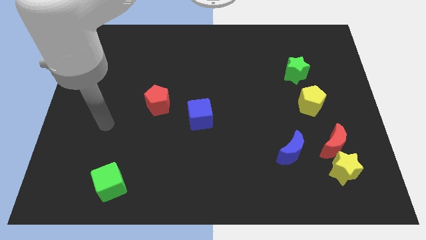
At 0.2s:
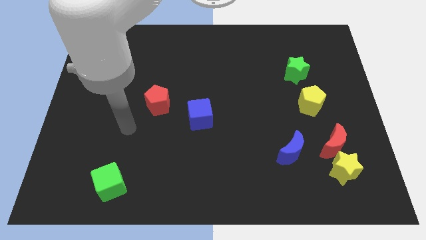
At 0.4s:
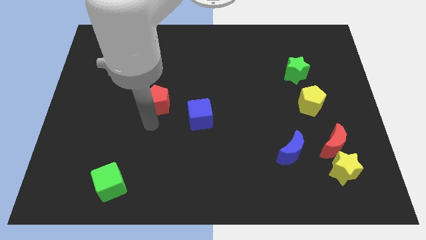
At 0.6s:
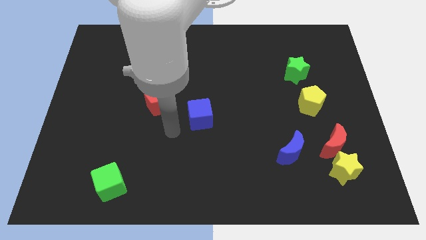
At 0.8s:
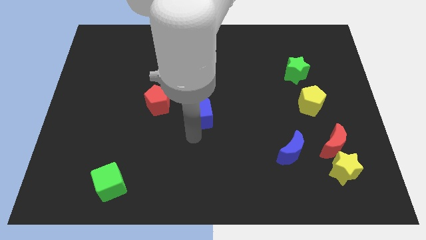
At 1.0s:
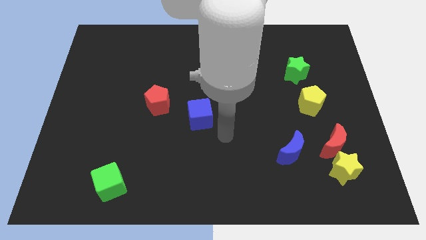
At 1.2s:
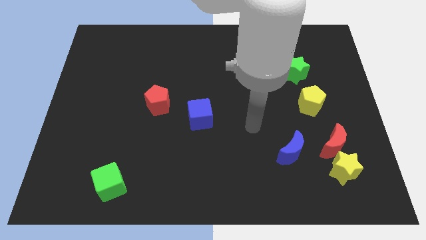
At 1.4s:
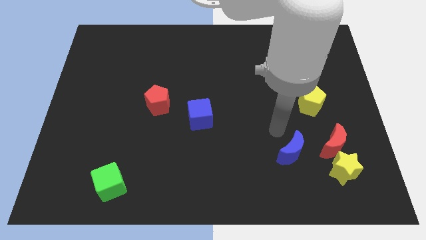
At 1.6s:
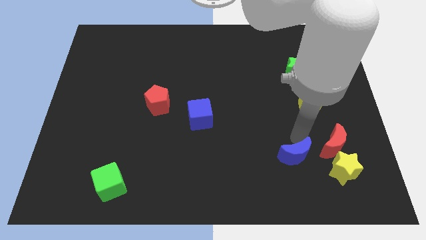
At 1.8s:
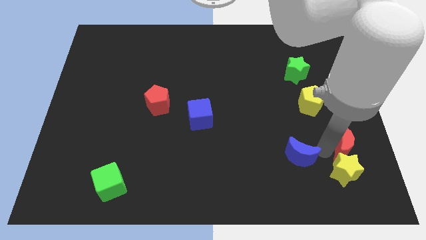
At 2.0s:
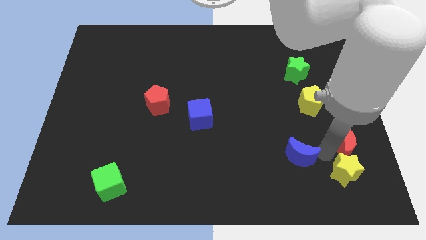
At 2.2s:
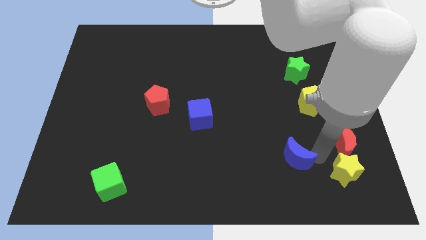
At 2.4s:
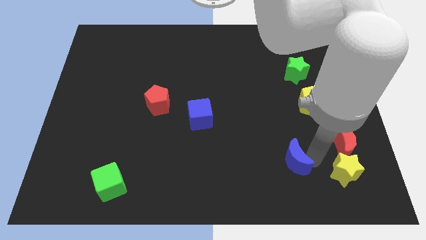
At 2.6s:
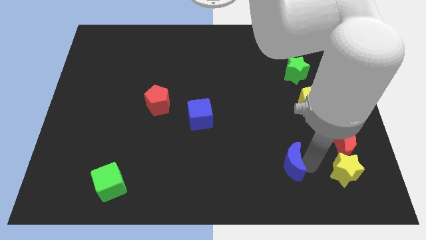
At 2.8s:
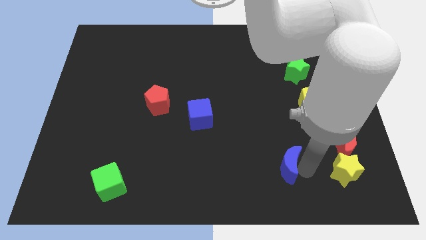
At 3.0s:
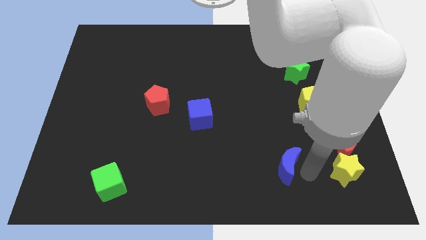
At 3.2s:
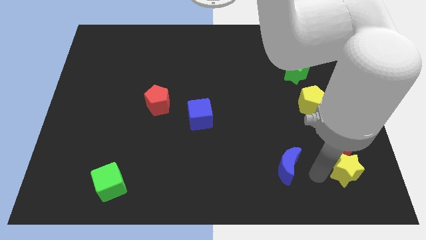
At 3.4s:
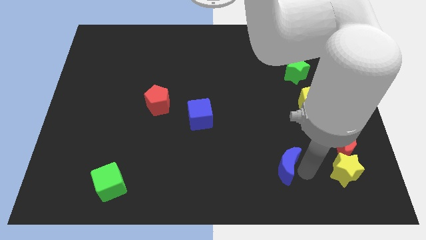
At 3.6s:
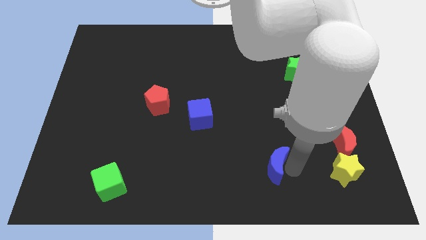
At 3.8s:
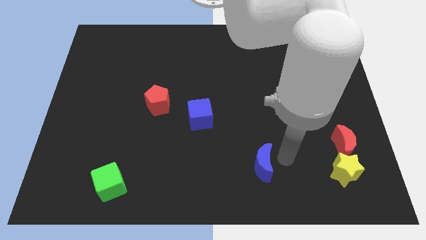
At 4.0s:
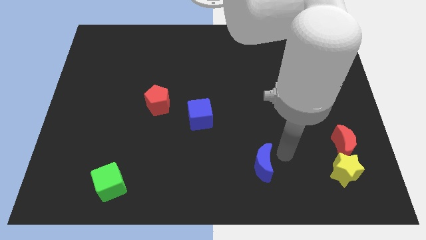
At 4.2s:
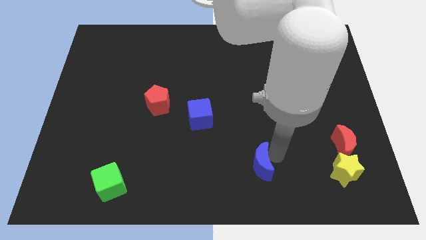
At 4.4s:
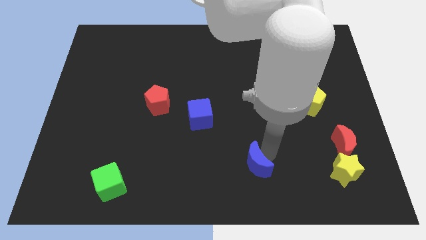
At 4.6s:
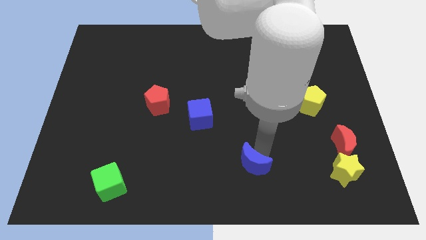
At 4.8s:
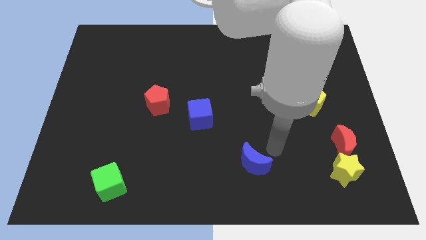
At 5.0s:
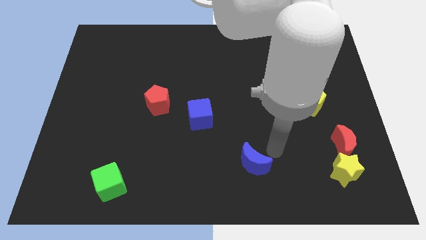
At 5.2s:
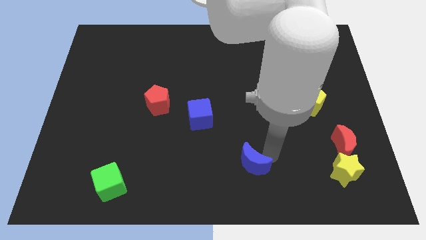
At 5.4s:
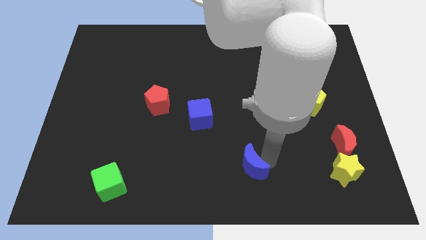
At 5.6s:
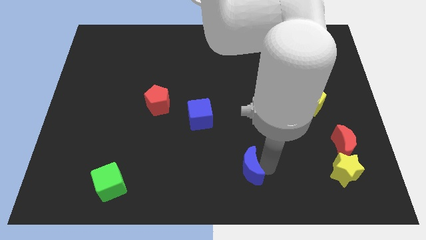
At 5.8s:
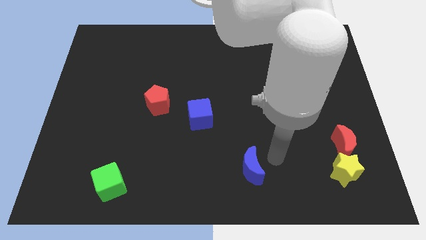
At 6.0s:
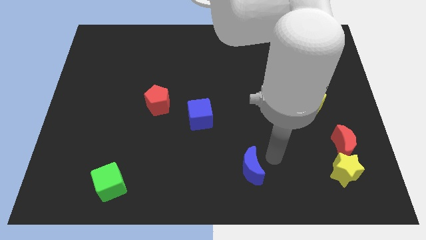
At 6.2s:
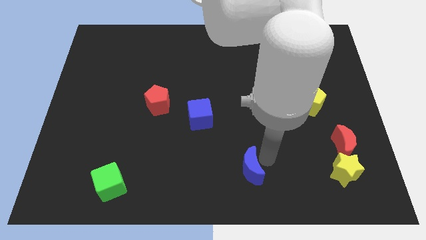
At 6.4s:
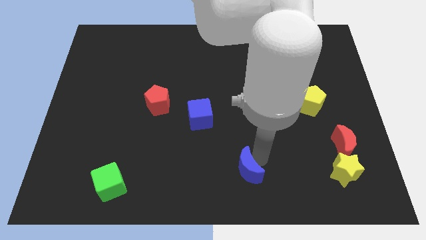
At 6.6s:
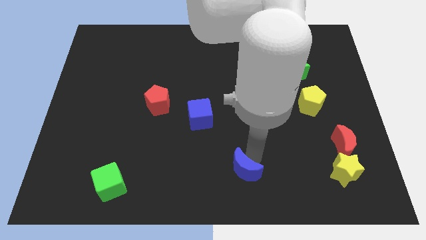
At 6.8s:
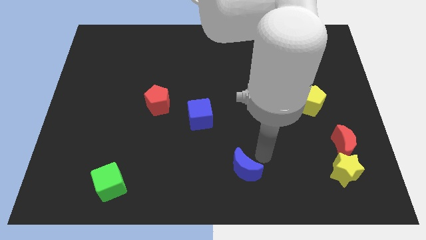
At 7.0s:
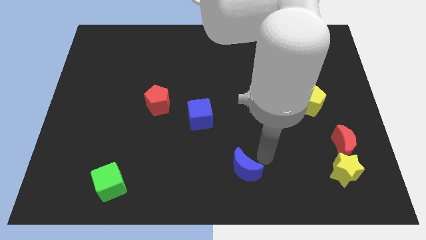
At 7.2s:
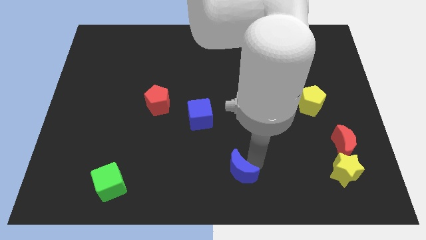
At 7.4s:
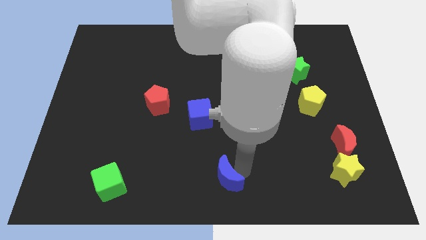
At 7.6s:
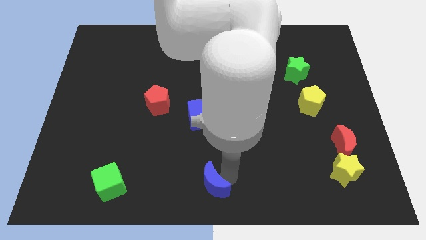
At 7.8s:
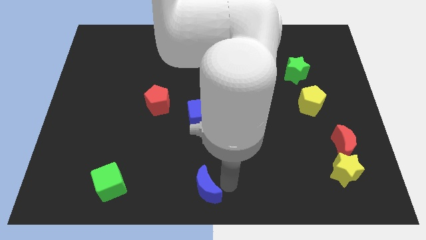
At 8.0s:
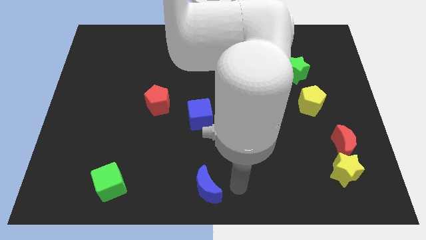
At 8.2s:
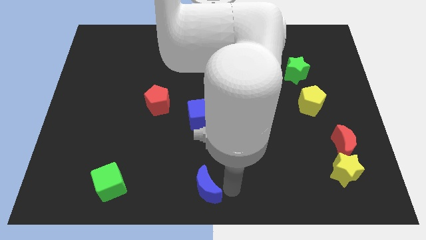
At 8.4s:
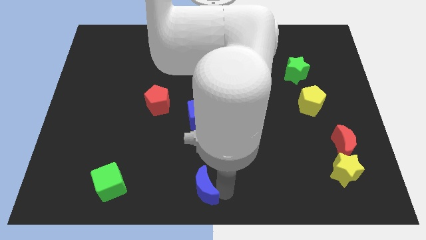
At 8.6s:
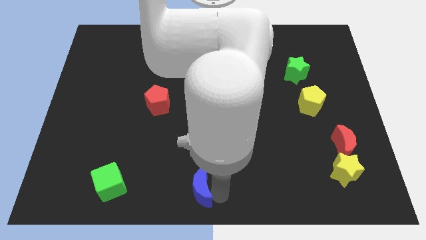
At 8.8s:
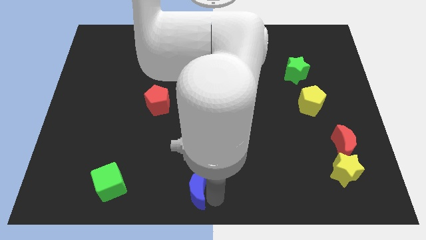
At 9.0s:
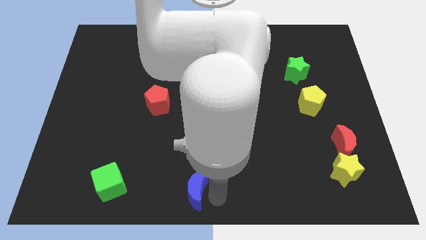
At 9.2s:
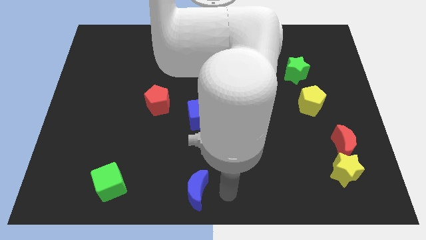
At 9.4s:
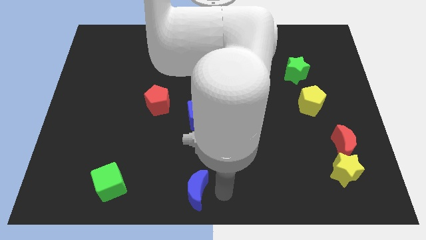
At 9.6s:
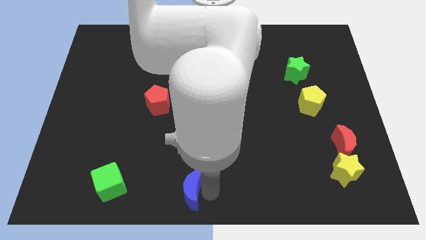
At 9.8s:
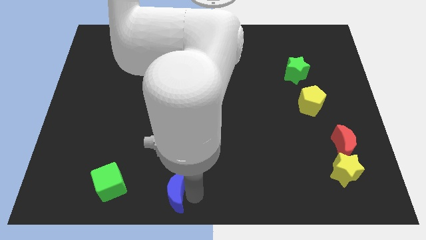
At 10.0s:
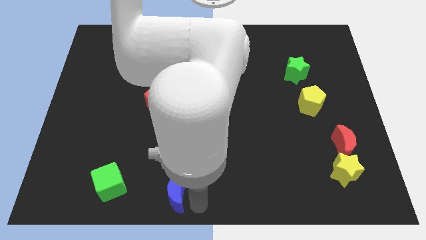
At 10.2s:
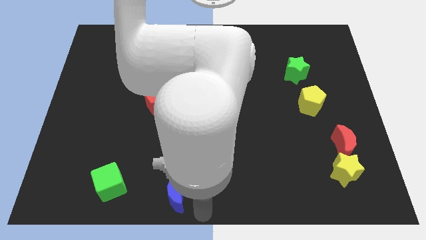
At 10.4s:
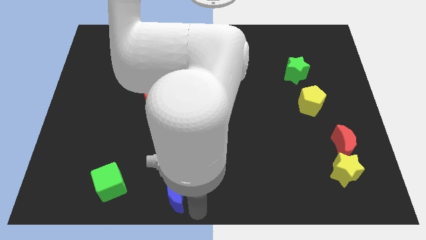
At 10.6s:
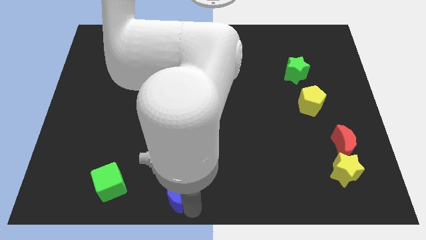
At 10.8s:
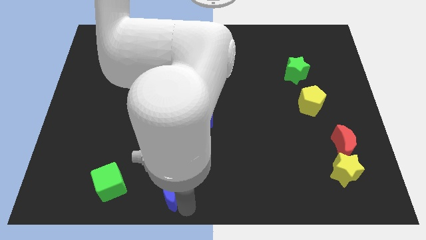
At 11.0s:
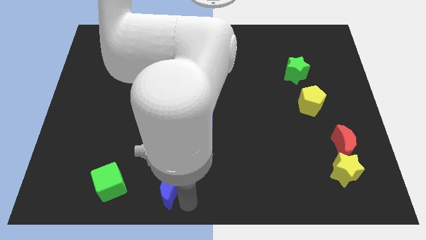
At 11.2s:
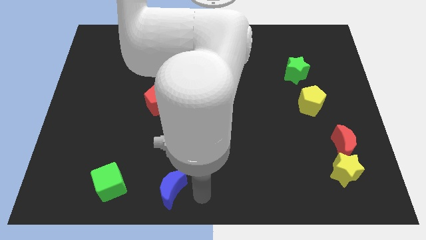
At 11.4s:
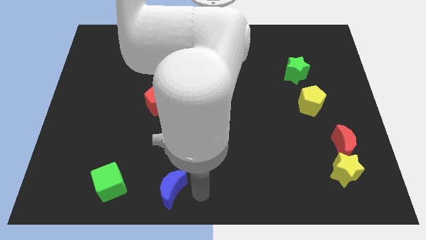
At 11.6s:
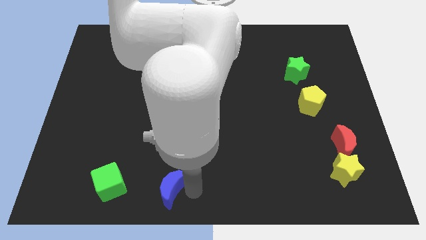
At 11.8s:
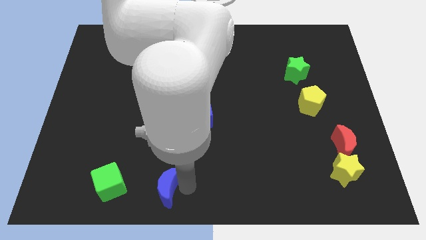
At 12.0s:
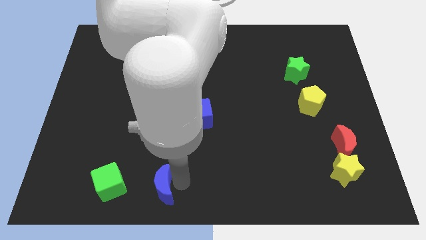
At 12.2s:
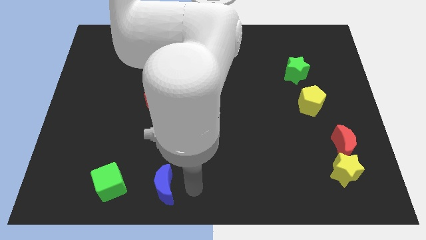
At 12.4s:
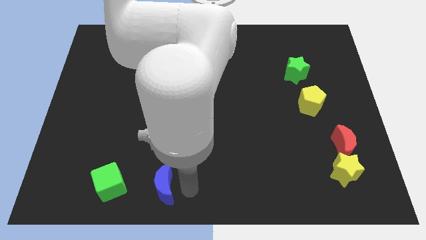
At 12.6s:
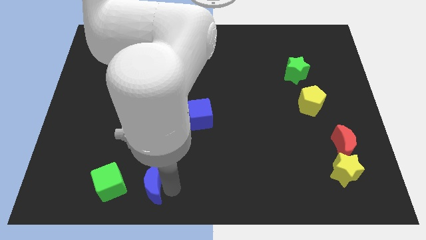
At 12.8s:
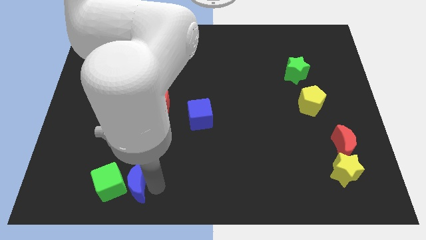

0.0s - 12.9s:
push the blue moon towards the green cube

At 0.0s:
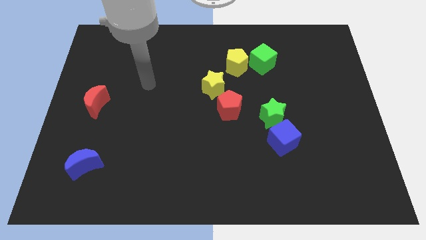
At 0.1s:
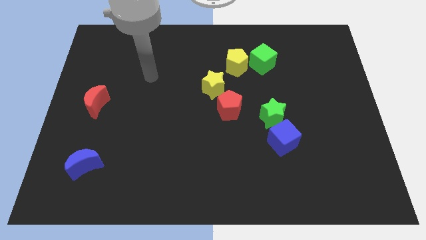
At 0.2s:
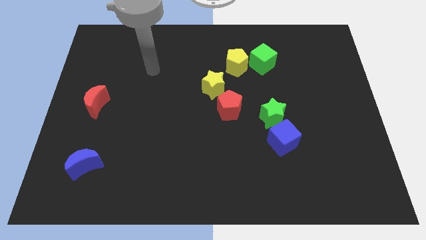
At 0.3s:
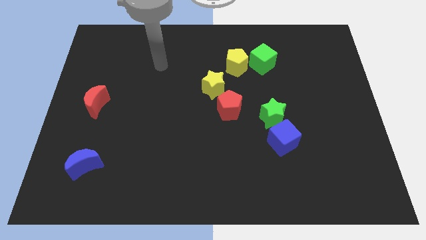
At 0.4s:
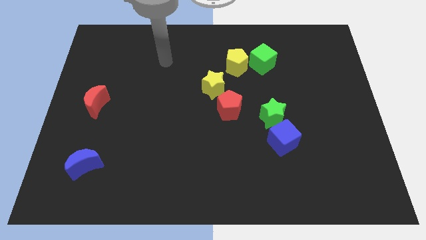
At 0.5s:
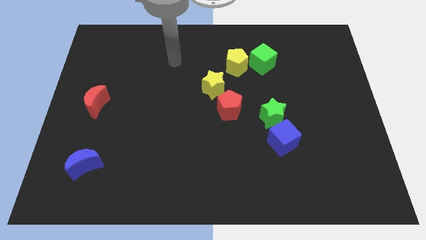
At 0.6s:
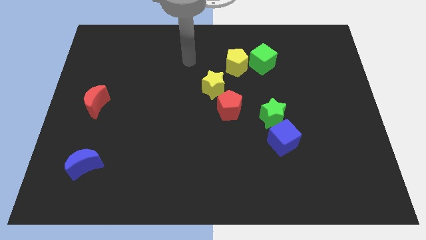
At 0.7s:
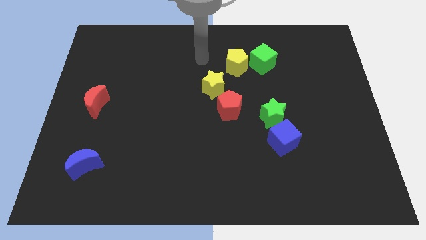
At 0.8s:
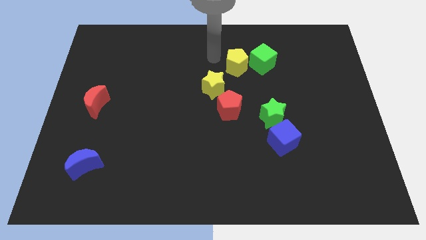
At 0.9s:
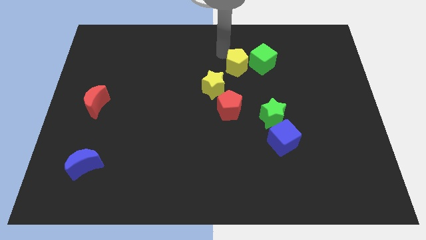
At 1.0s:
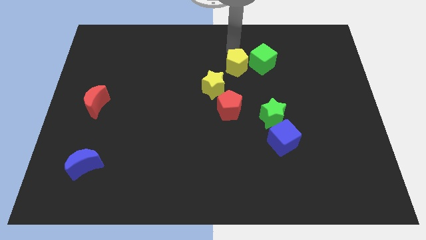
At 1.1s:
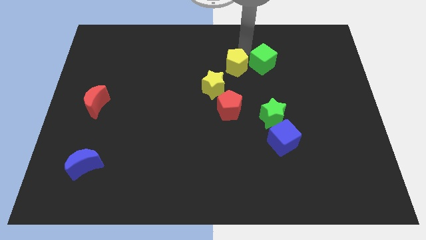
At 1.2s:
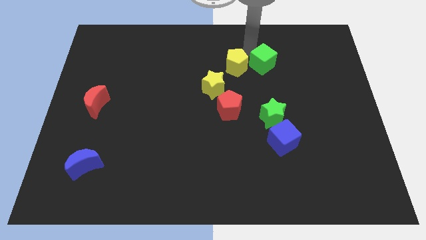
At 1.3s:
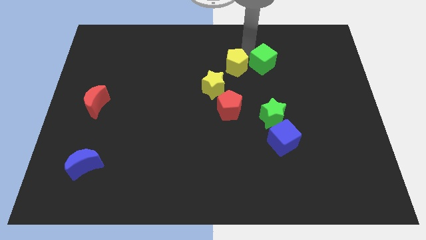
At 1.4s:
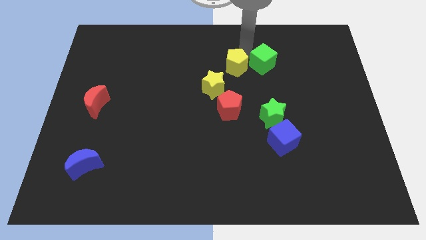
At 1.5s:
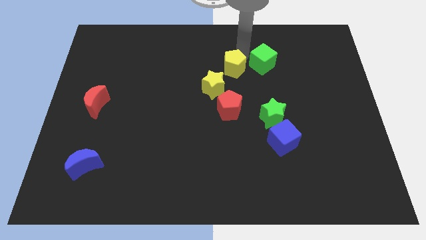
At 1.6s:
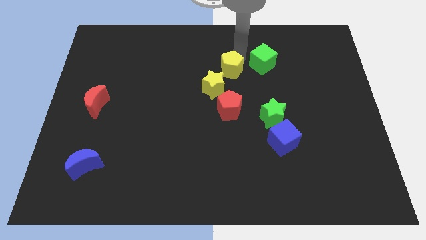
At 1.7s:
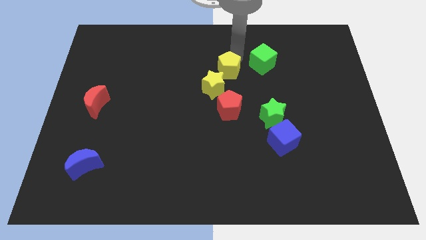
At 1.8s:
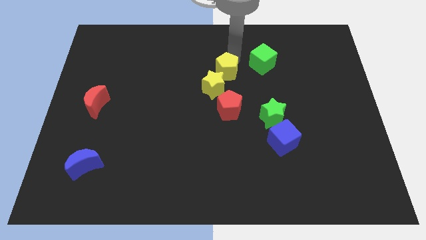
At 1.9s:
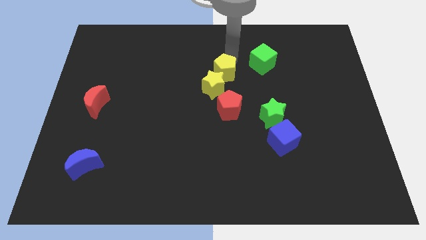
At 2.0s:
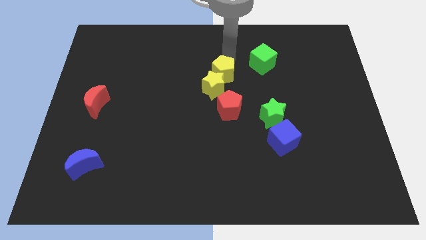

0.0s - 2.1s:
put the yellow pentagon next to the yellow star
